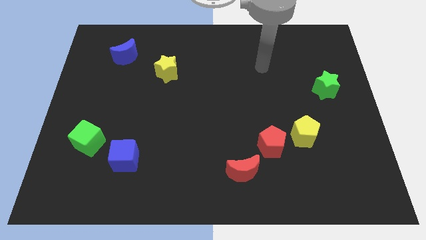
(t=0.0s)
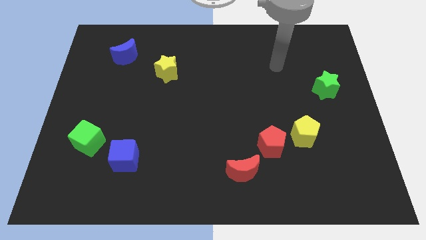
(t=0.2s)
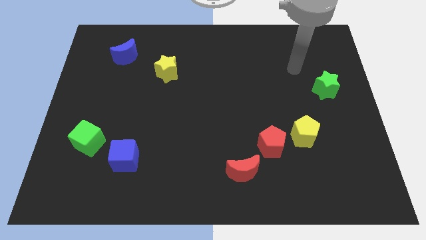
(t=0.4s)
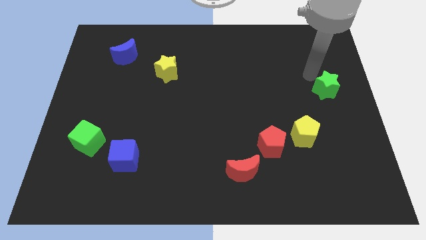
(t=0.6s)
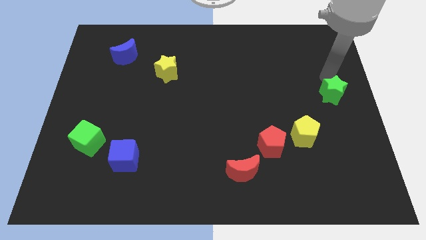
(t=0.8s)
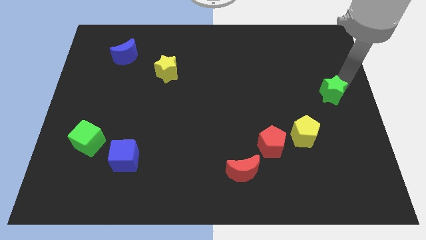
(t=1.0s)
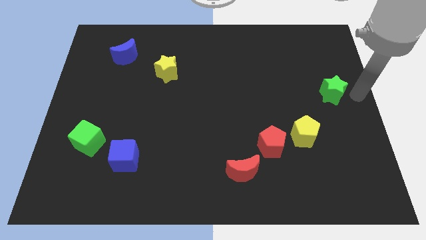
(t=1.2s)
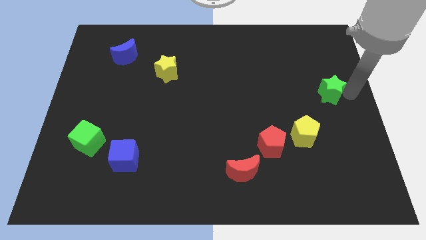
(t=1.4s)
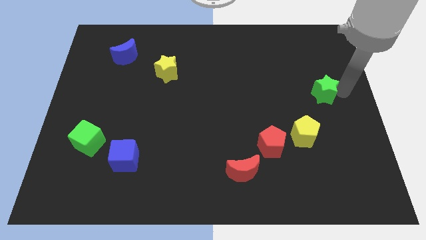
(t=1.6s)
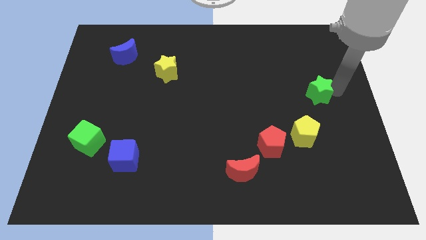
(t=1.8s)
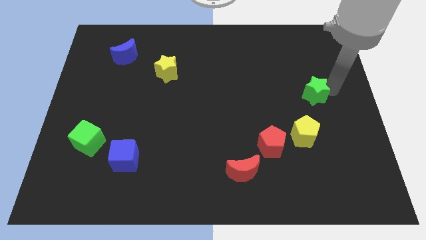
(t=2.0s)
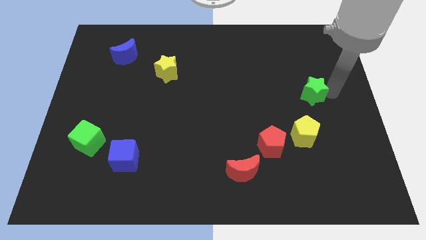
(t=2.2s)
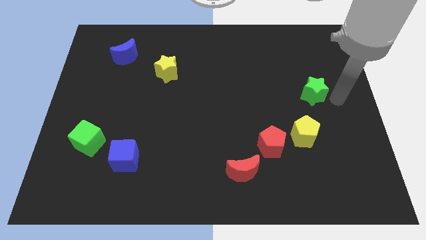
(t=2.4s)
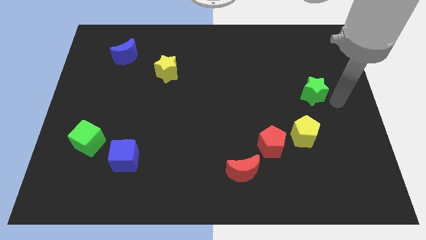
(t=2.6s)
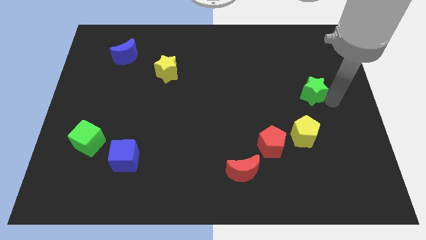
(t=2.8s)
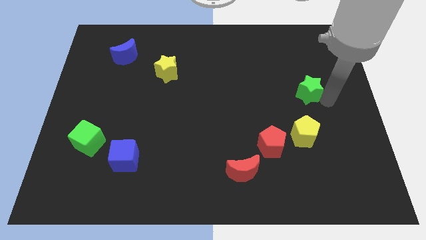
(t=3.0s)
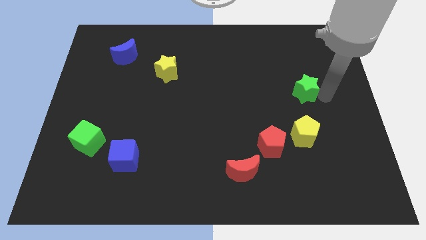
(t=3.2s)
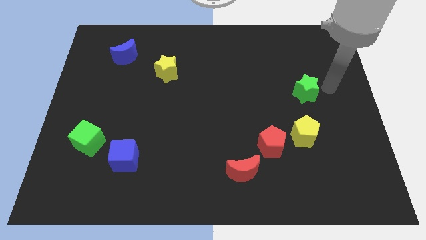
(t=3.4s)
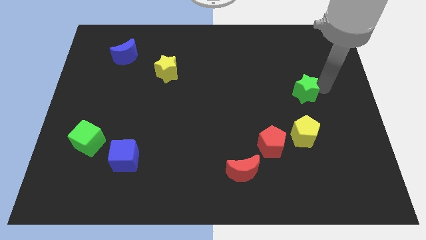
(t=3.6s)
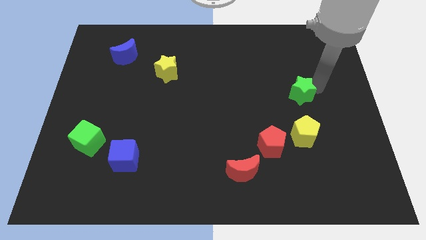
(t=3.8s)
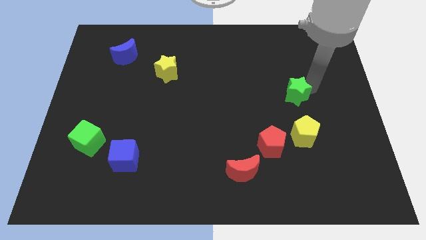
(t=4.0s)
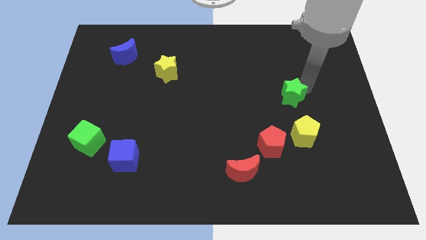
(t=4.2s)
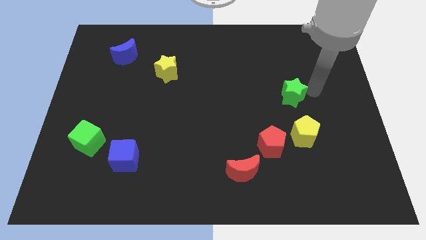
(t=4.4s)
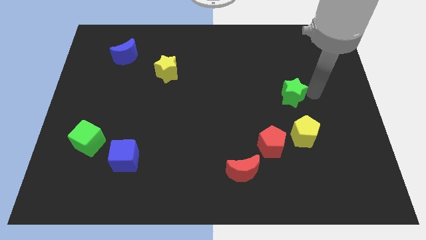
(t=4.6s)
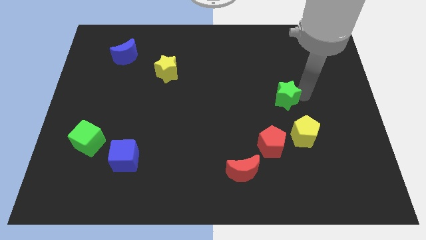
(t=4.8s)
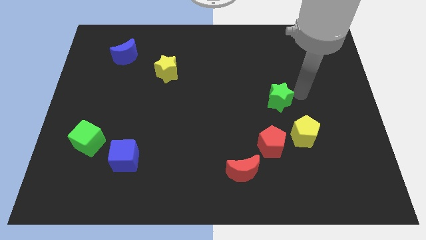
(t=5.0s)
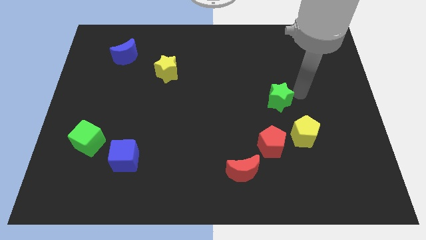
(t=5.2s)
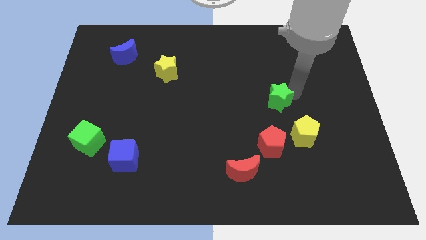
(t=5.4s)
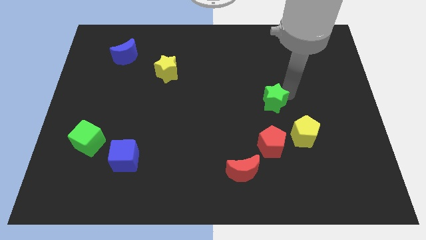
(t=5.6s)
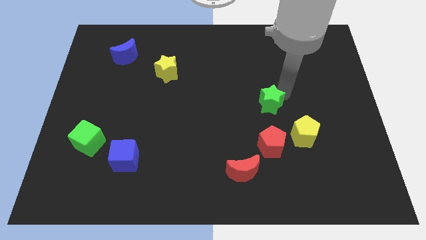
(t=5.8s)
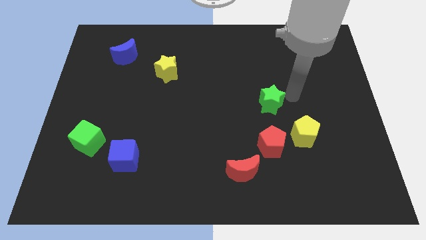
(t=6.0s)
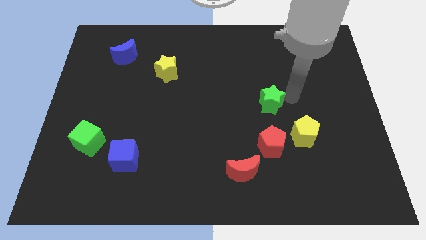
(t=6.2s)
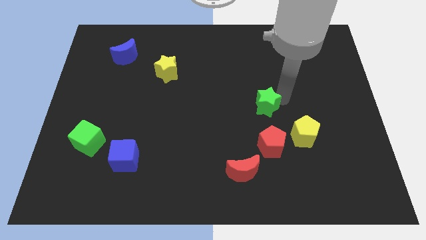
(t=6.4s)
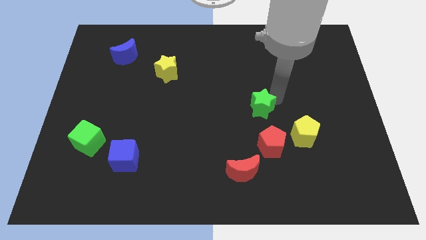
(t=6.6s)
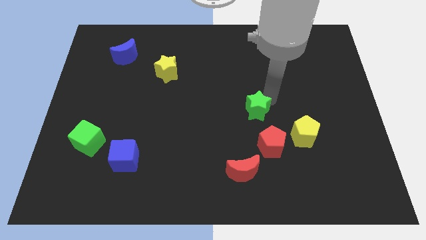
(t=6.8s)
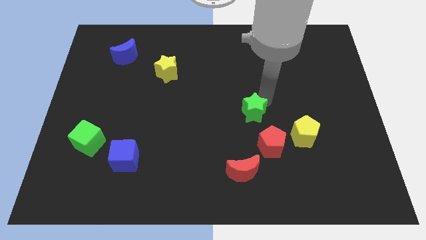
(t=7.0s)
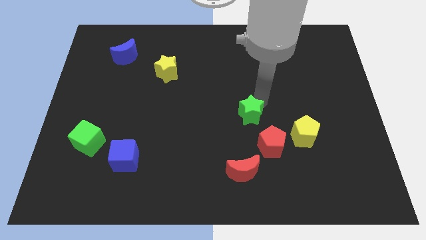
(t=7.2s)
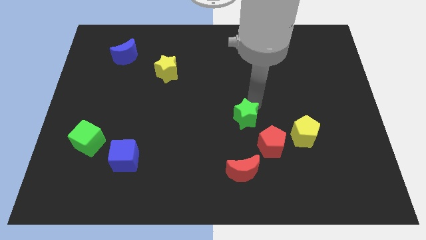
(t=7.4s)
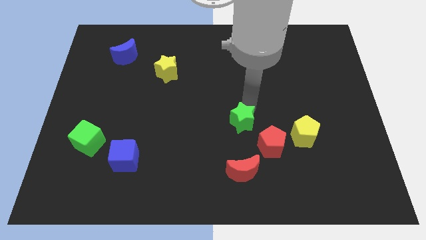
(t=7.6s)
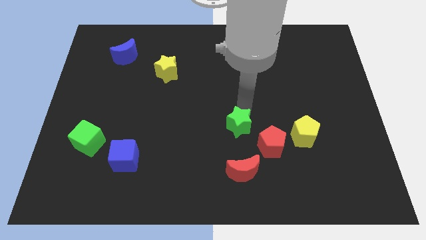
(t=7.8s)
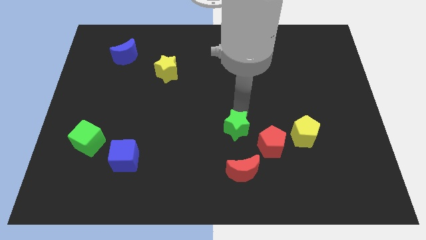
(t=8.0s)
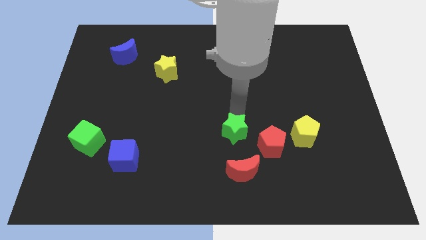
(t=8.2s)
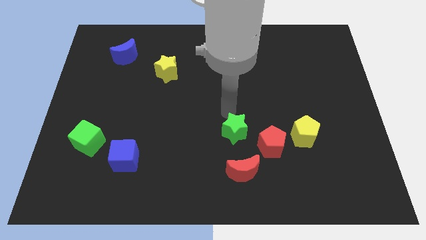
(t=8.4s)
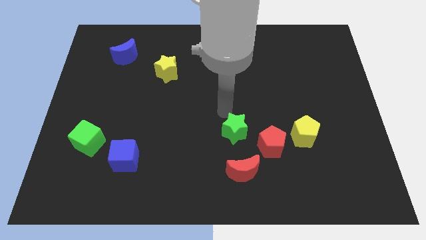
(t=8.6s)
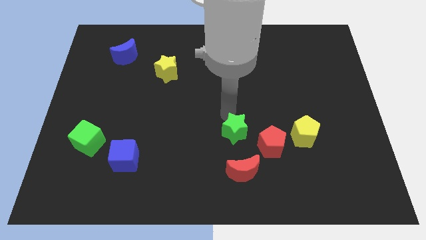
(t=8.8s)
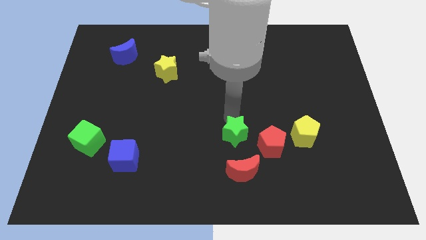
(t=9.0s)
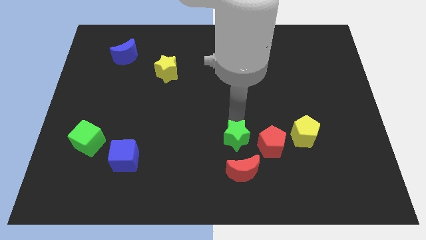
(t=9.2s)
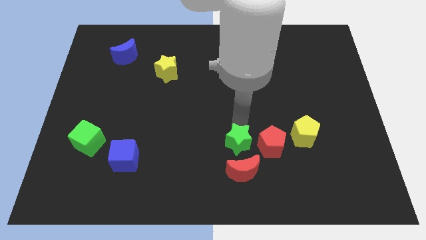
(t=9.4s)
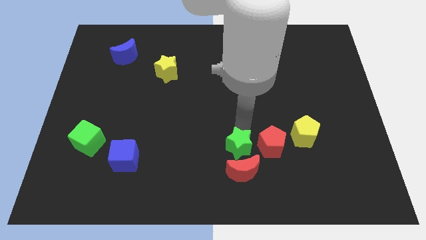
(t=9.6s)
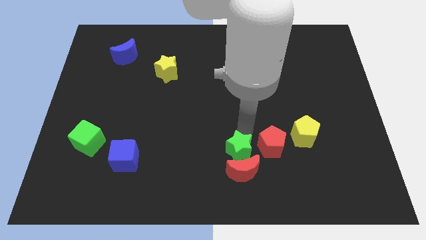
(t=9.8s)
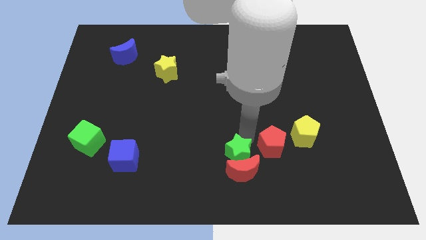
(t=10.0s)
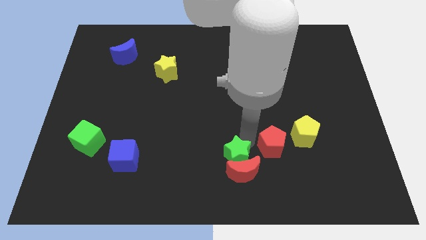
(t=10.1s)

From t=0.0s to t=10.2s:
push the green star to the bottom side

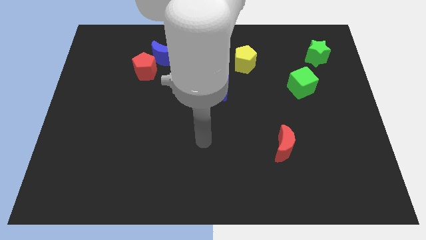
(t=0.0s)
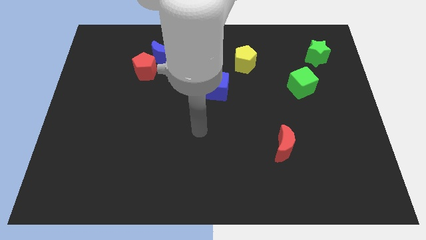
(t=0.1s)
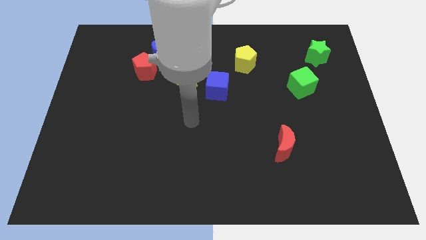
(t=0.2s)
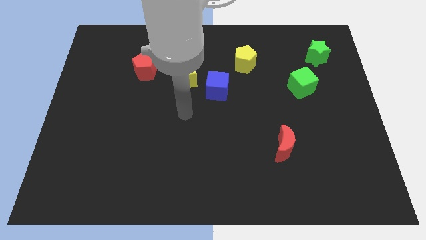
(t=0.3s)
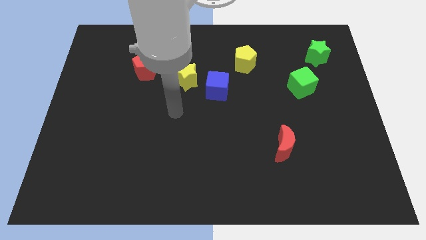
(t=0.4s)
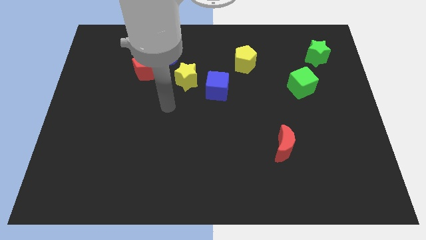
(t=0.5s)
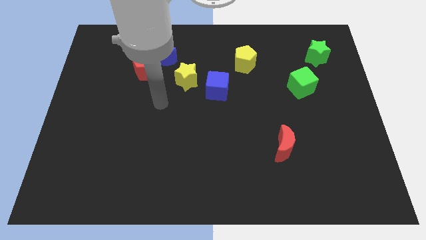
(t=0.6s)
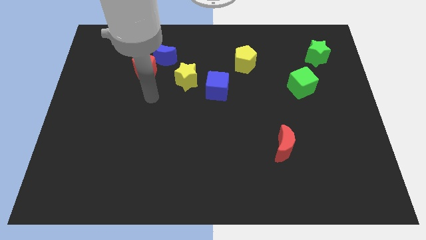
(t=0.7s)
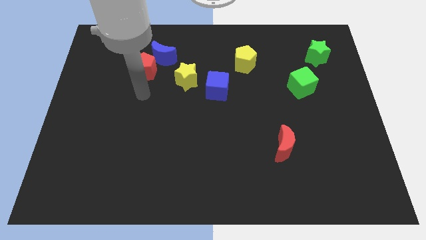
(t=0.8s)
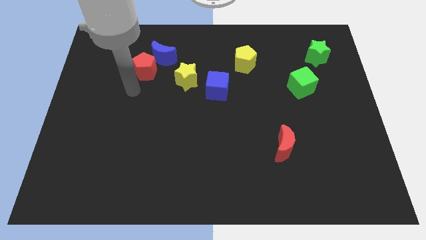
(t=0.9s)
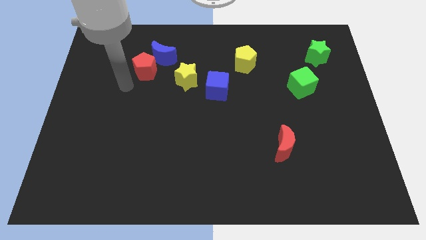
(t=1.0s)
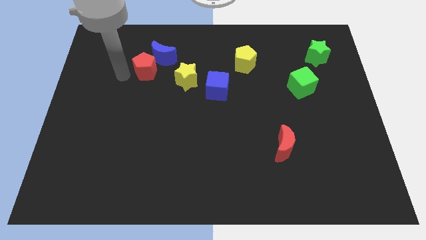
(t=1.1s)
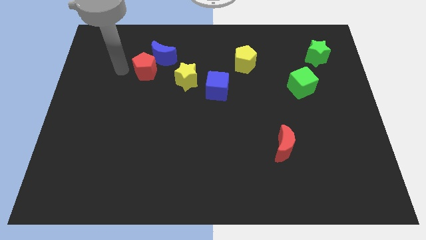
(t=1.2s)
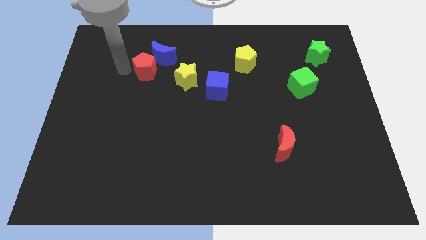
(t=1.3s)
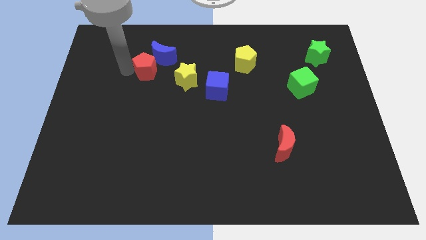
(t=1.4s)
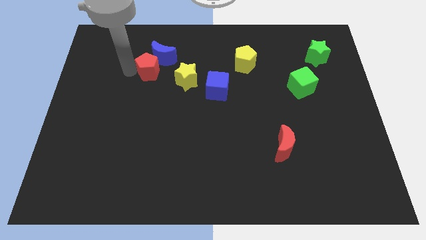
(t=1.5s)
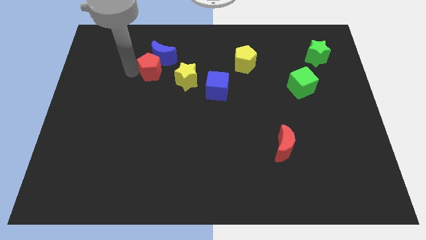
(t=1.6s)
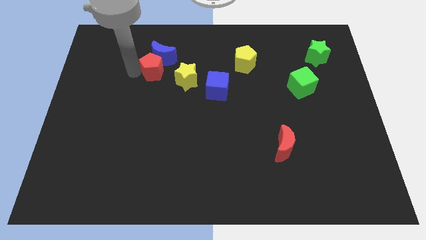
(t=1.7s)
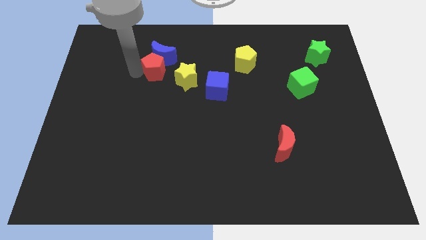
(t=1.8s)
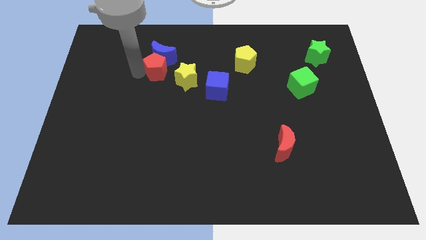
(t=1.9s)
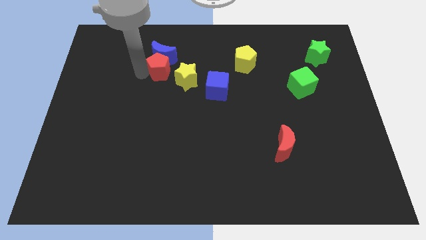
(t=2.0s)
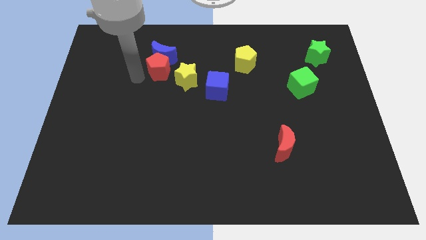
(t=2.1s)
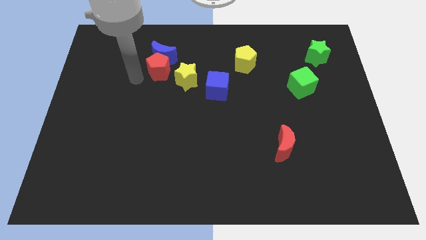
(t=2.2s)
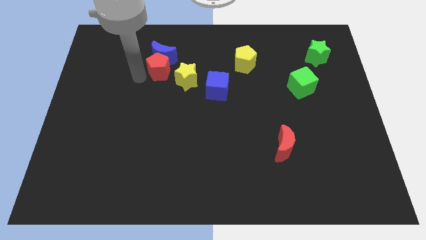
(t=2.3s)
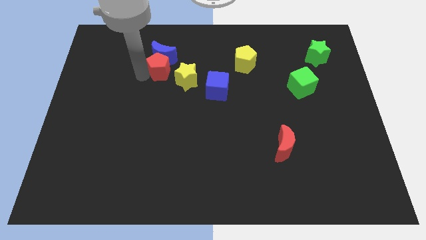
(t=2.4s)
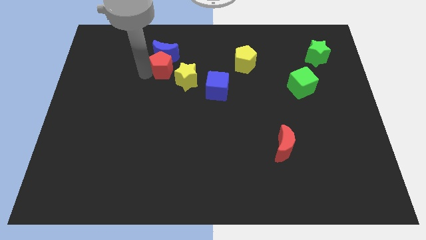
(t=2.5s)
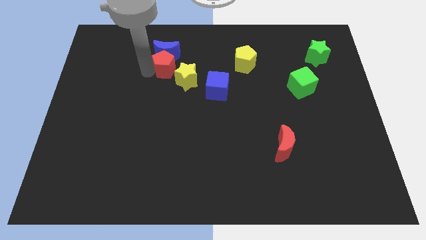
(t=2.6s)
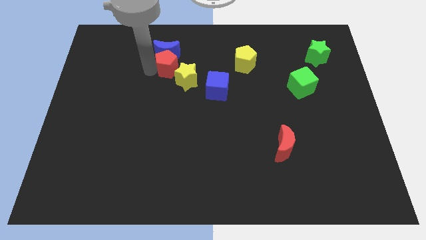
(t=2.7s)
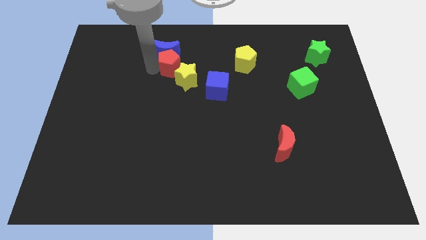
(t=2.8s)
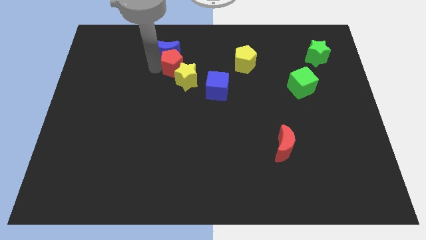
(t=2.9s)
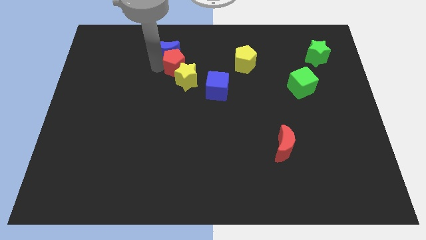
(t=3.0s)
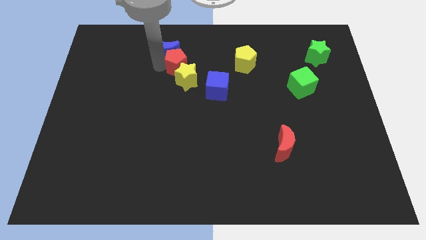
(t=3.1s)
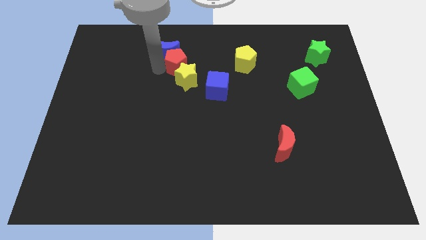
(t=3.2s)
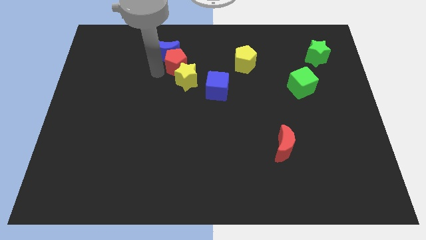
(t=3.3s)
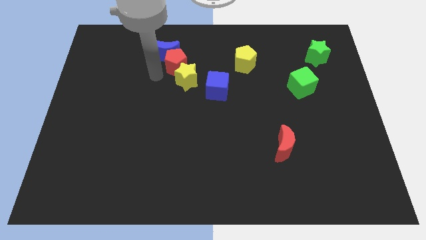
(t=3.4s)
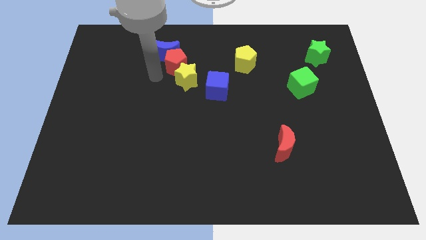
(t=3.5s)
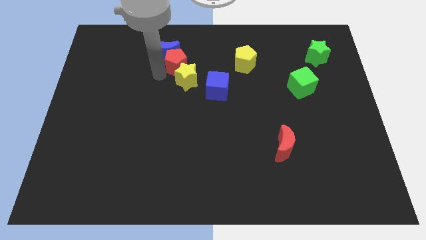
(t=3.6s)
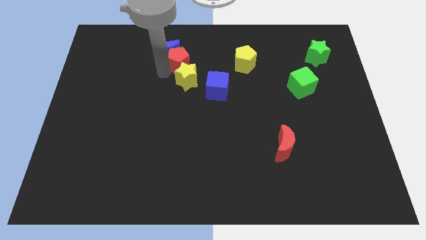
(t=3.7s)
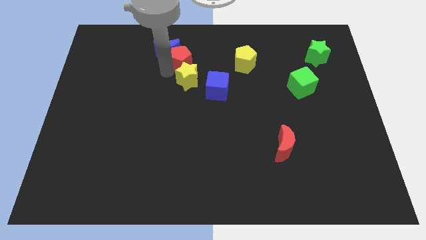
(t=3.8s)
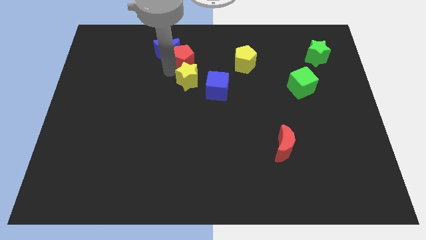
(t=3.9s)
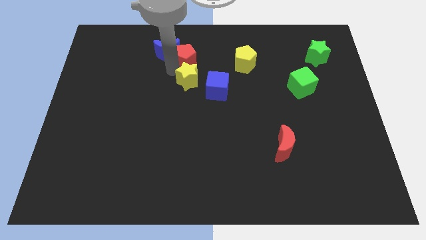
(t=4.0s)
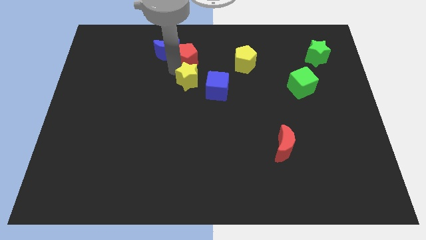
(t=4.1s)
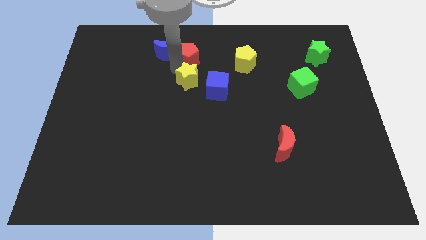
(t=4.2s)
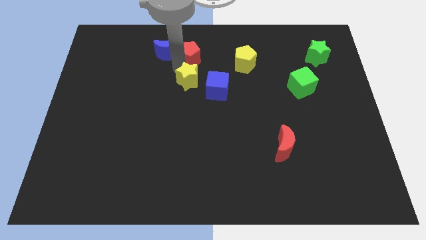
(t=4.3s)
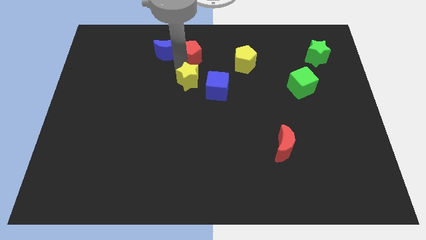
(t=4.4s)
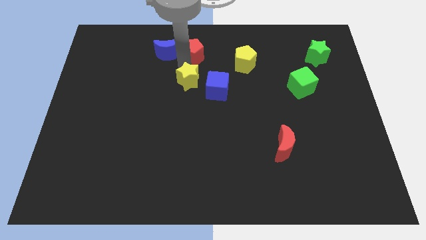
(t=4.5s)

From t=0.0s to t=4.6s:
put the red pentagon to the towards your base
